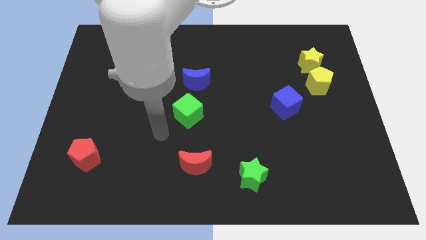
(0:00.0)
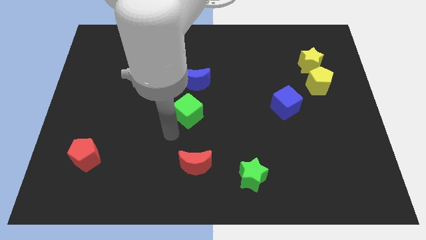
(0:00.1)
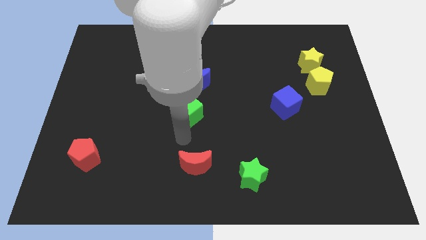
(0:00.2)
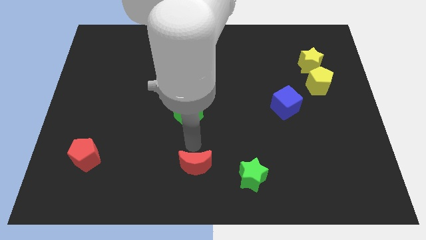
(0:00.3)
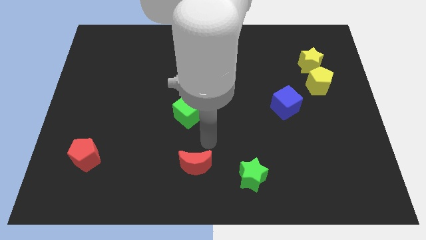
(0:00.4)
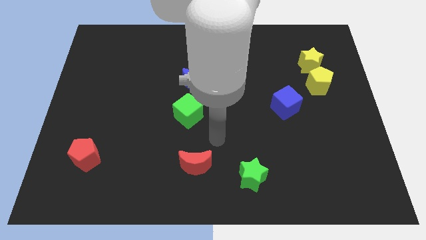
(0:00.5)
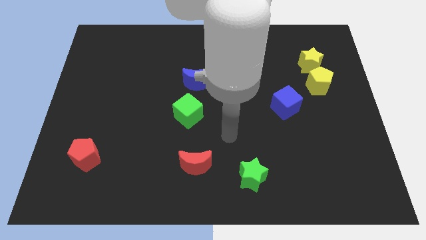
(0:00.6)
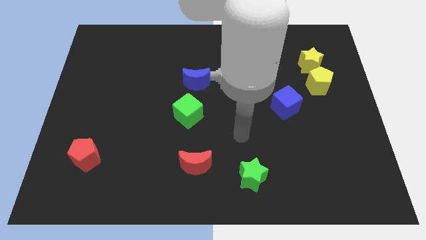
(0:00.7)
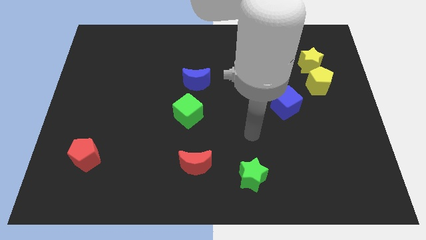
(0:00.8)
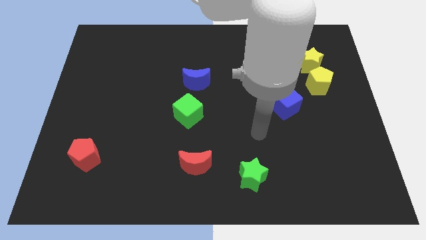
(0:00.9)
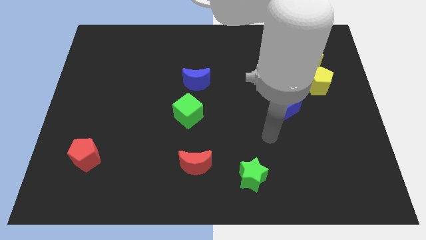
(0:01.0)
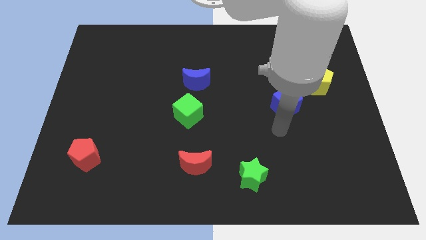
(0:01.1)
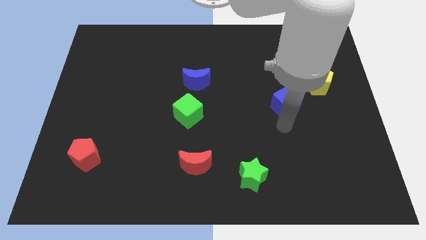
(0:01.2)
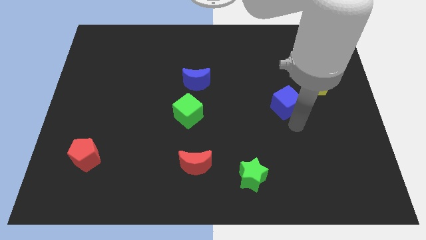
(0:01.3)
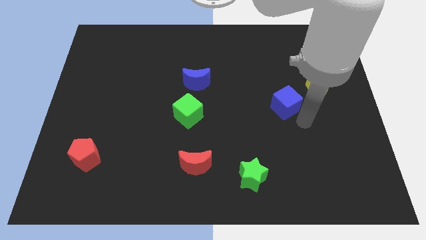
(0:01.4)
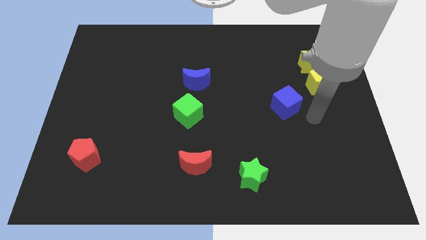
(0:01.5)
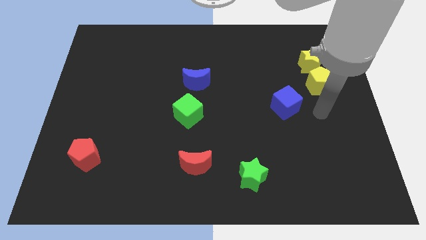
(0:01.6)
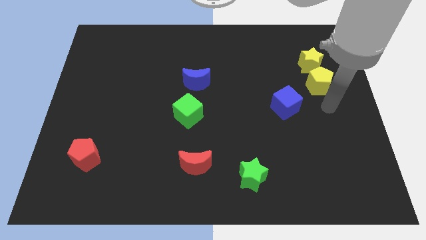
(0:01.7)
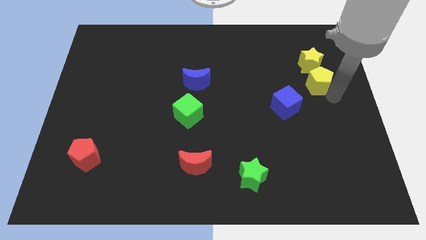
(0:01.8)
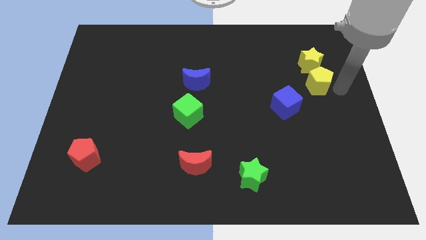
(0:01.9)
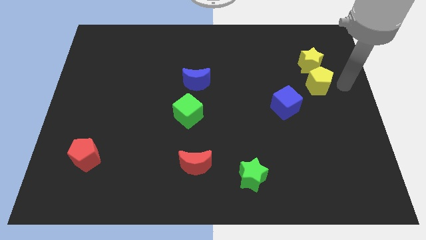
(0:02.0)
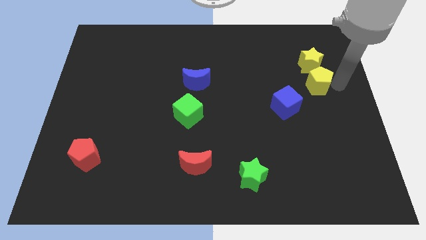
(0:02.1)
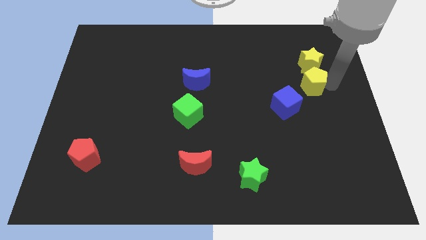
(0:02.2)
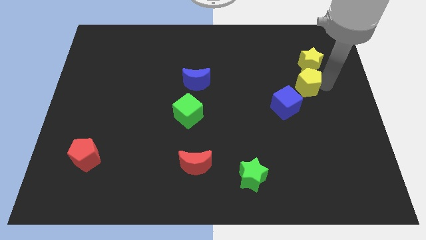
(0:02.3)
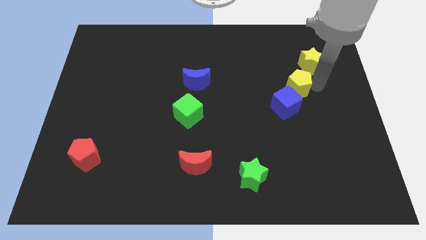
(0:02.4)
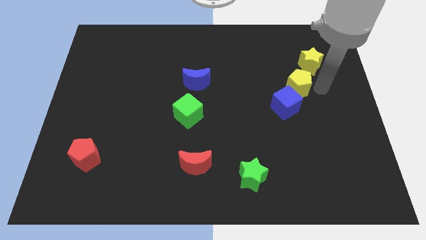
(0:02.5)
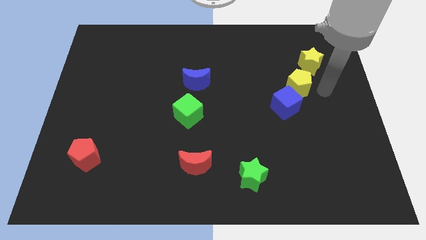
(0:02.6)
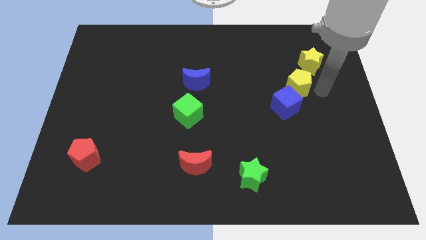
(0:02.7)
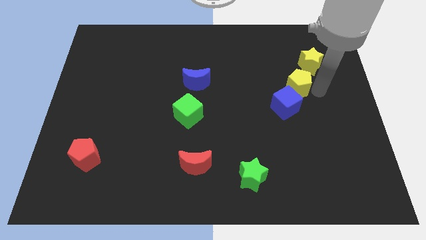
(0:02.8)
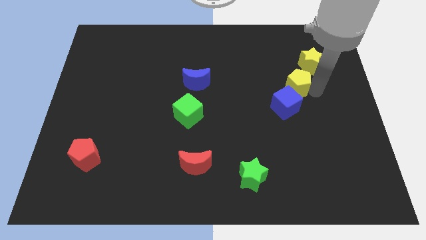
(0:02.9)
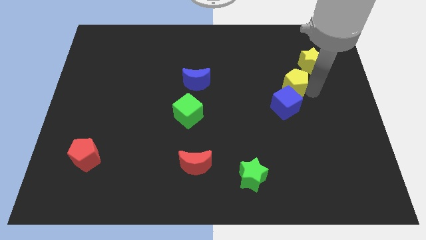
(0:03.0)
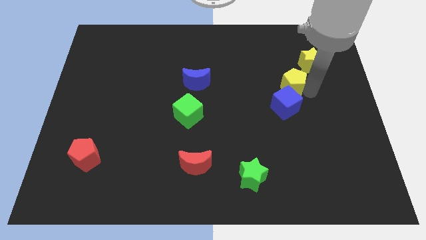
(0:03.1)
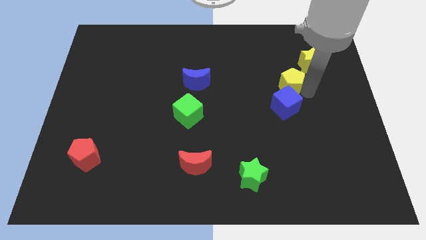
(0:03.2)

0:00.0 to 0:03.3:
move the yellow pentagon a little bit left

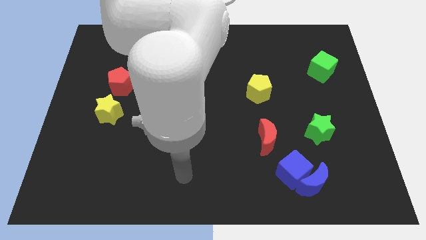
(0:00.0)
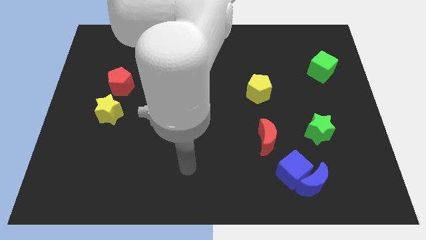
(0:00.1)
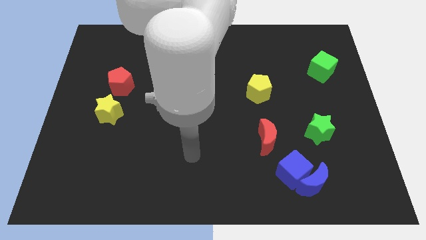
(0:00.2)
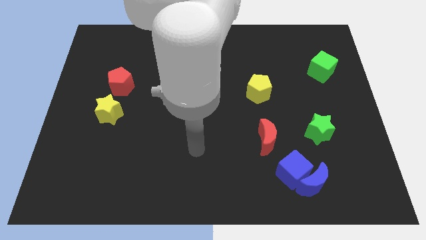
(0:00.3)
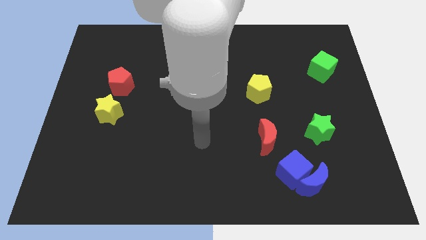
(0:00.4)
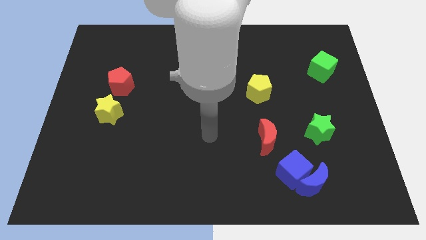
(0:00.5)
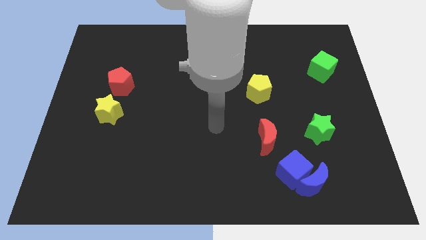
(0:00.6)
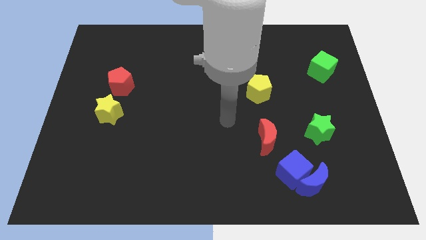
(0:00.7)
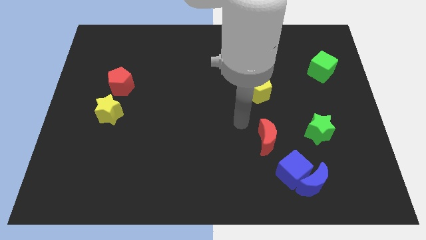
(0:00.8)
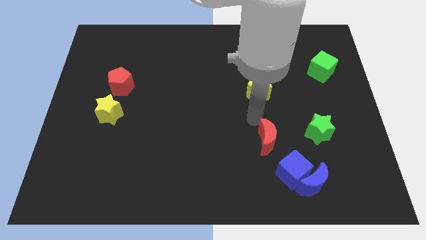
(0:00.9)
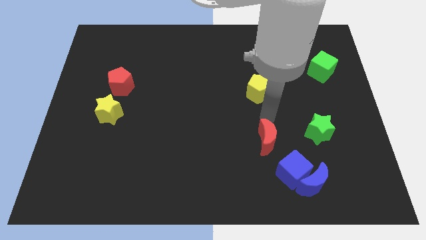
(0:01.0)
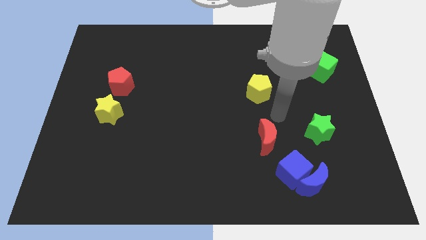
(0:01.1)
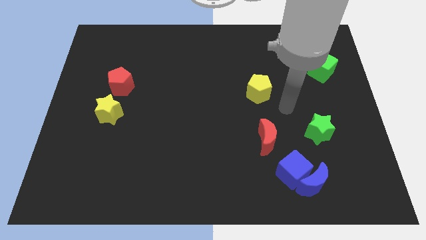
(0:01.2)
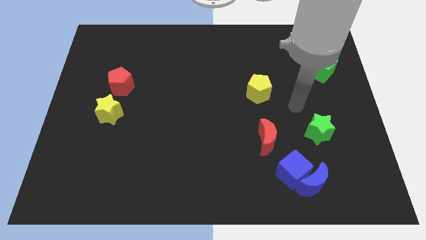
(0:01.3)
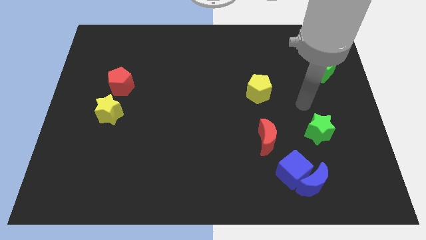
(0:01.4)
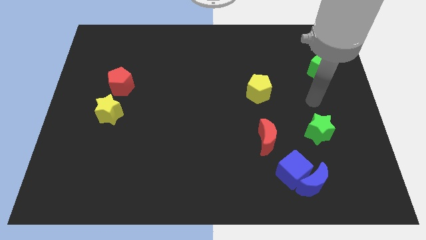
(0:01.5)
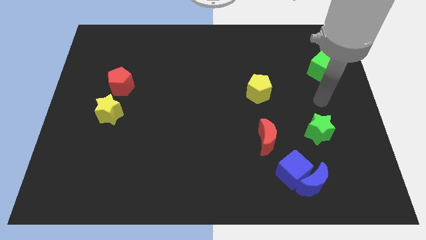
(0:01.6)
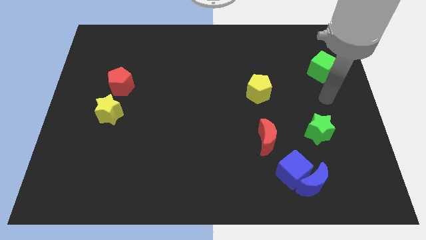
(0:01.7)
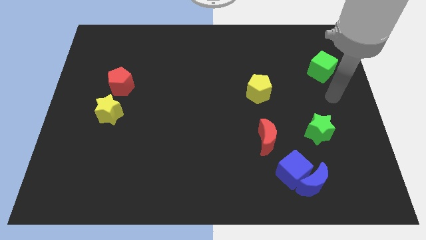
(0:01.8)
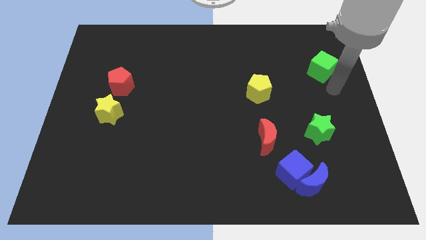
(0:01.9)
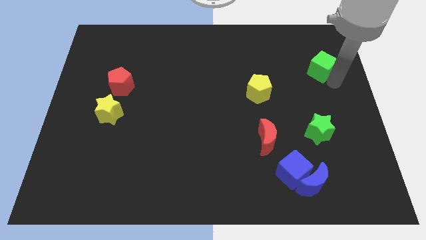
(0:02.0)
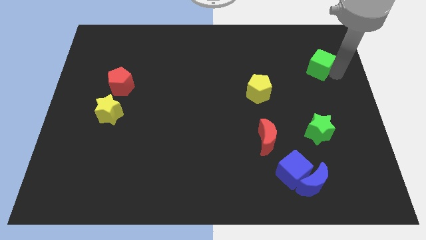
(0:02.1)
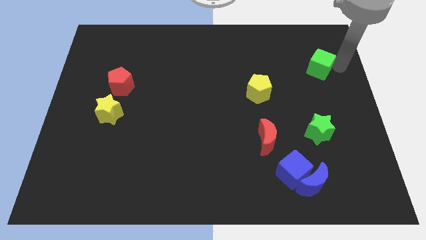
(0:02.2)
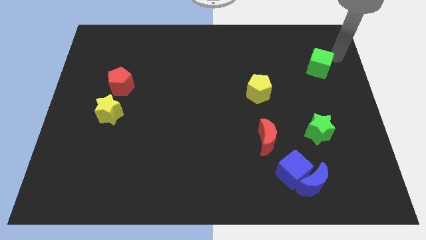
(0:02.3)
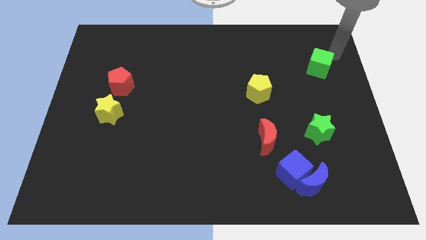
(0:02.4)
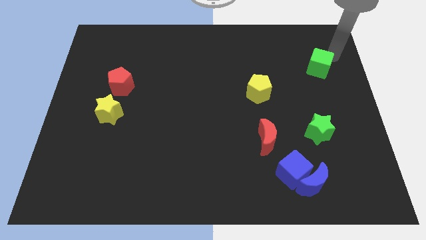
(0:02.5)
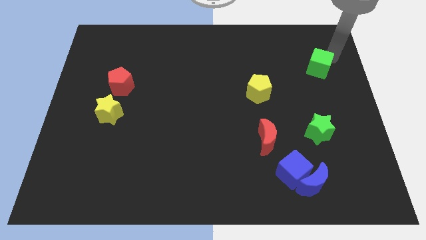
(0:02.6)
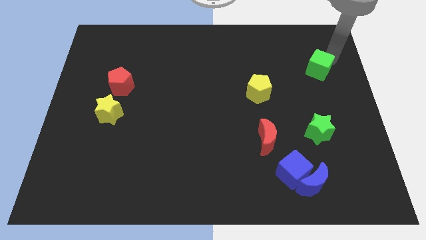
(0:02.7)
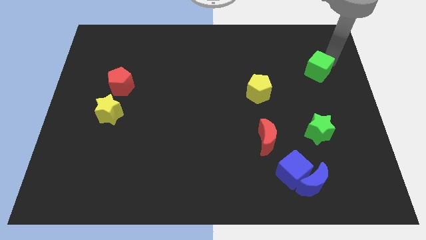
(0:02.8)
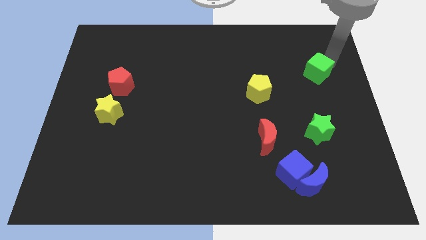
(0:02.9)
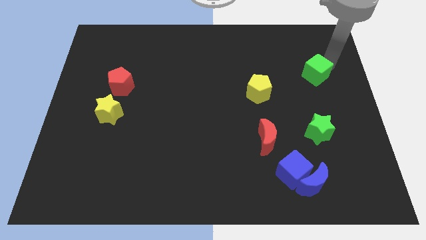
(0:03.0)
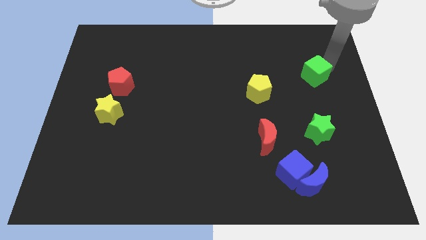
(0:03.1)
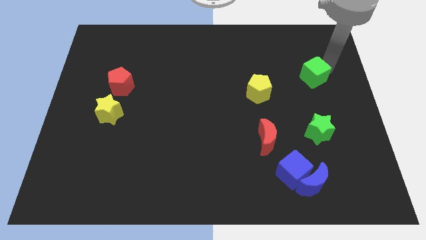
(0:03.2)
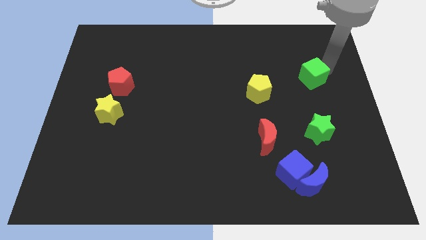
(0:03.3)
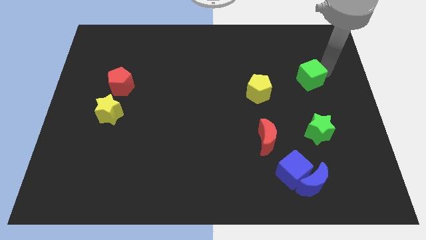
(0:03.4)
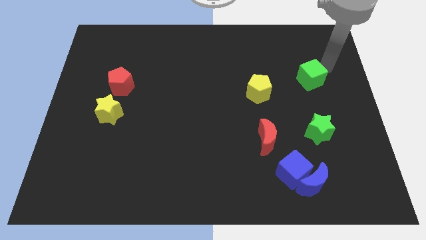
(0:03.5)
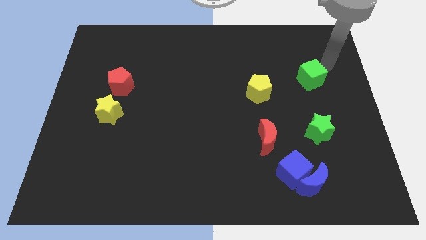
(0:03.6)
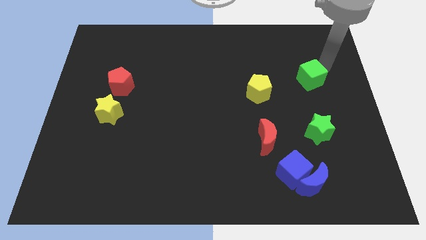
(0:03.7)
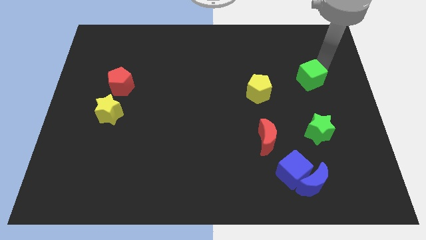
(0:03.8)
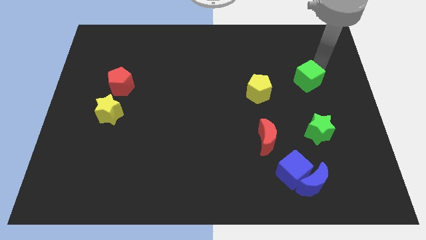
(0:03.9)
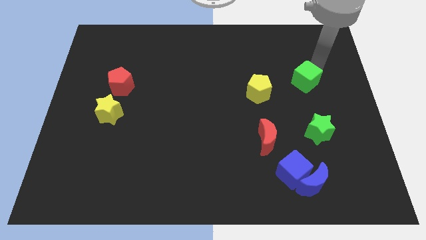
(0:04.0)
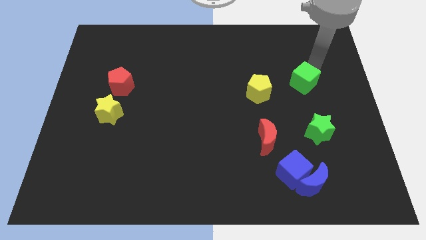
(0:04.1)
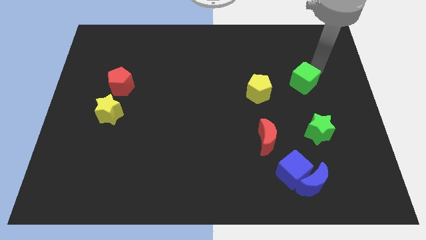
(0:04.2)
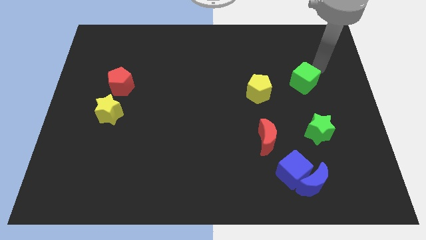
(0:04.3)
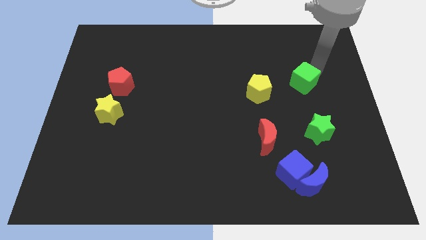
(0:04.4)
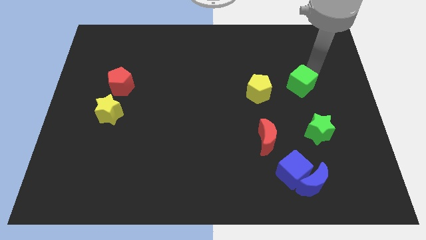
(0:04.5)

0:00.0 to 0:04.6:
slide the green cube diagonally downwards and left a bit
